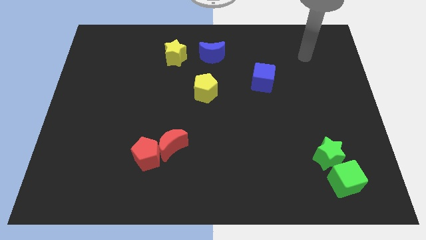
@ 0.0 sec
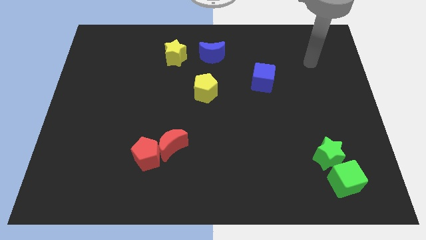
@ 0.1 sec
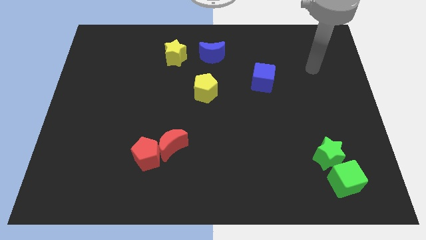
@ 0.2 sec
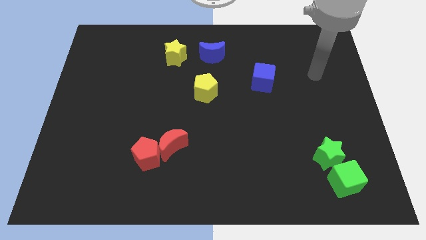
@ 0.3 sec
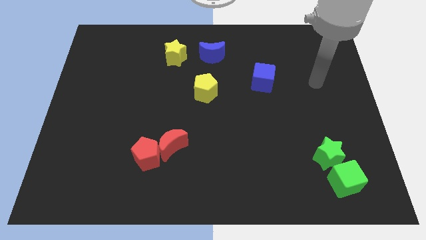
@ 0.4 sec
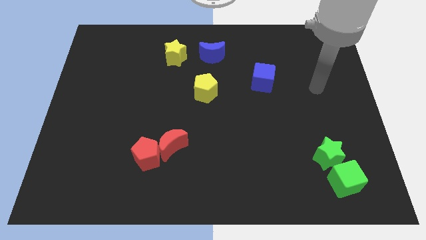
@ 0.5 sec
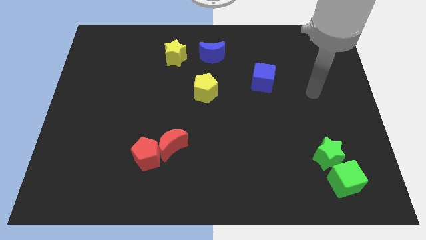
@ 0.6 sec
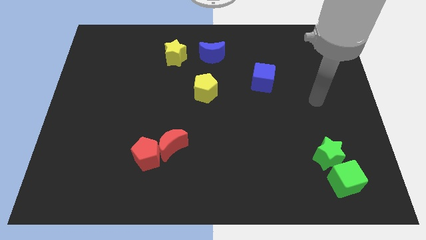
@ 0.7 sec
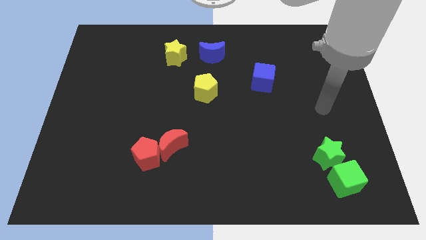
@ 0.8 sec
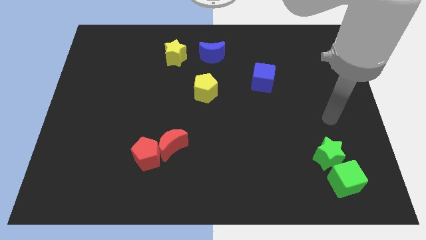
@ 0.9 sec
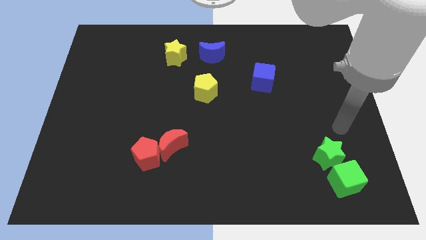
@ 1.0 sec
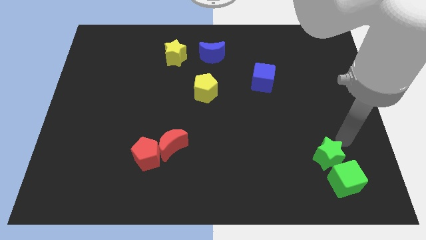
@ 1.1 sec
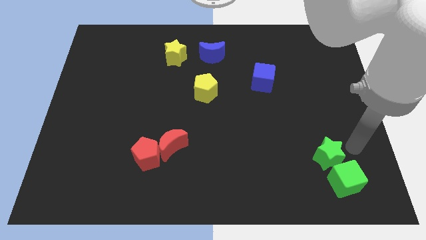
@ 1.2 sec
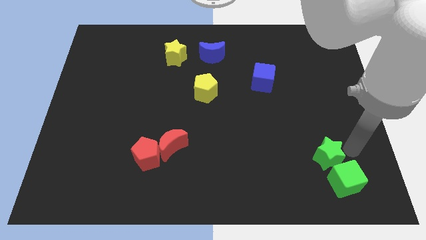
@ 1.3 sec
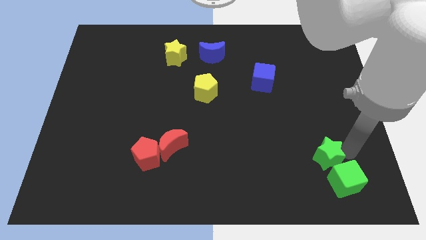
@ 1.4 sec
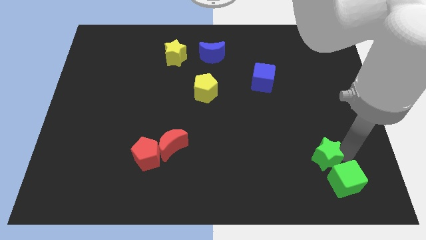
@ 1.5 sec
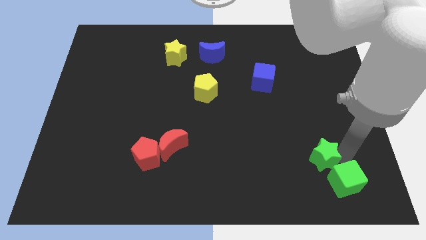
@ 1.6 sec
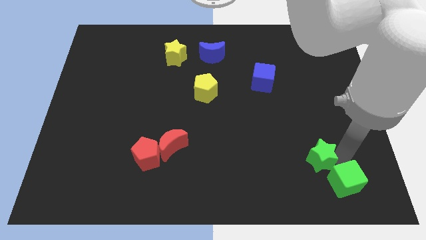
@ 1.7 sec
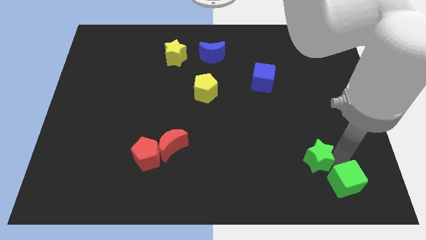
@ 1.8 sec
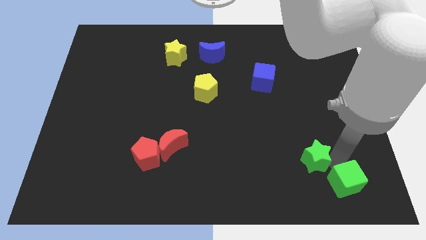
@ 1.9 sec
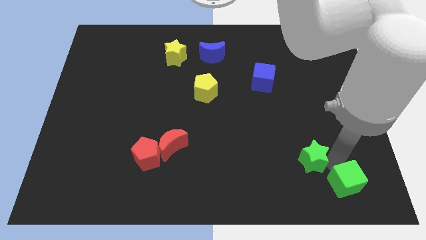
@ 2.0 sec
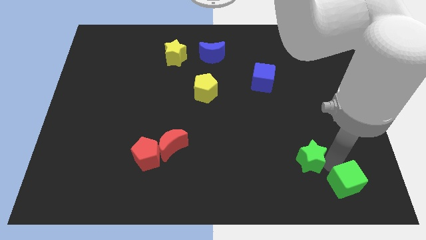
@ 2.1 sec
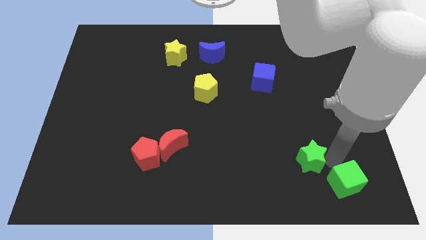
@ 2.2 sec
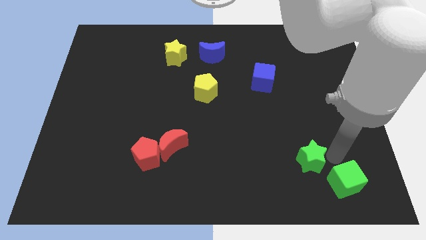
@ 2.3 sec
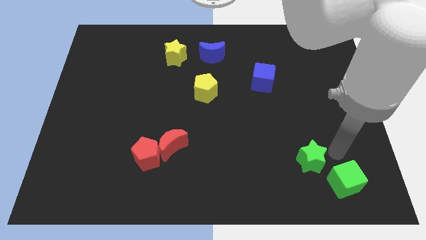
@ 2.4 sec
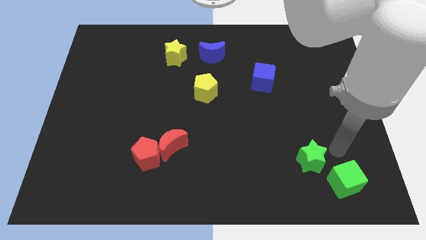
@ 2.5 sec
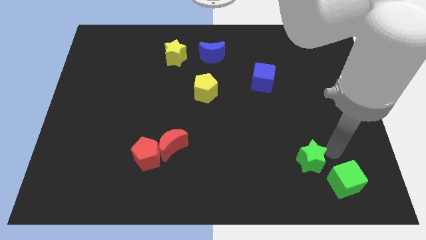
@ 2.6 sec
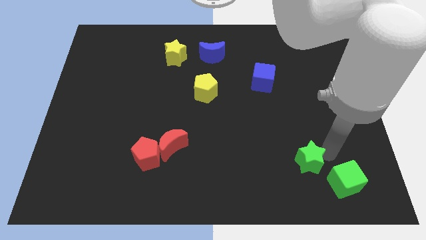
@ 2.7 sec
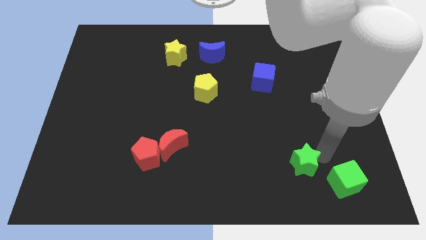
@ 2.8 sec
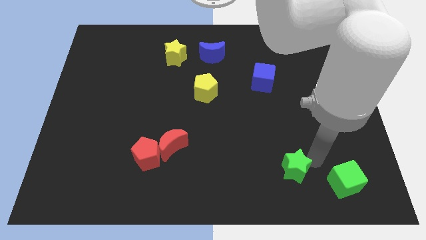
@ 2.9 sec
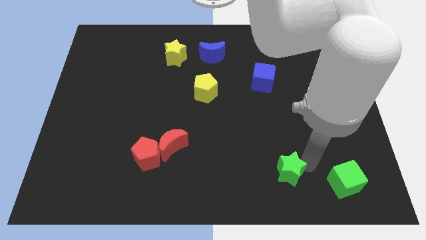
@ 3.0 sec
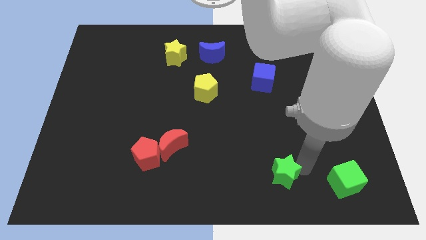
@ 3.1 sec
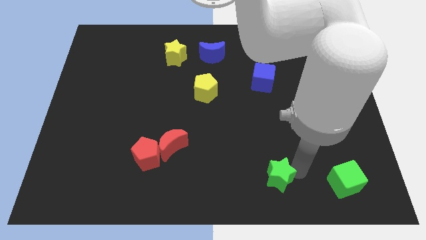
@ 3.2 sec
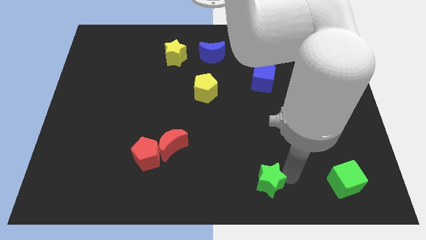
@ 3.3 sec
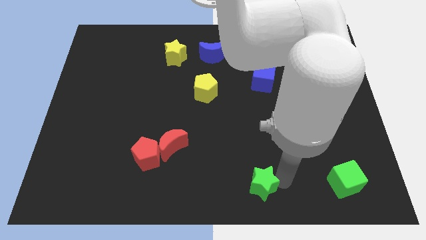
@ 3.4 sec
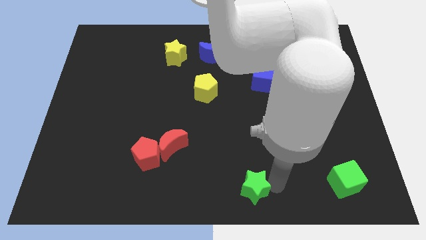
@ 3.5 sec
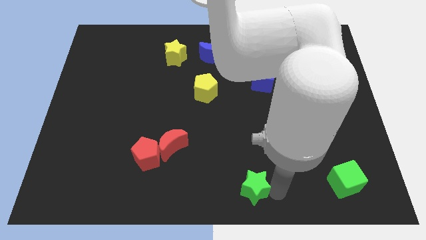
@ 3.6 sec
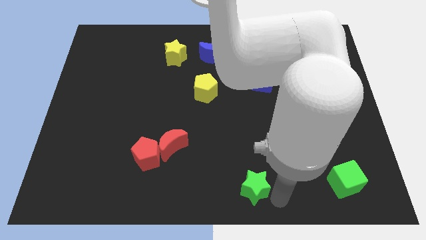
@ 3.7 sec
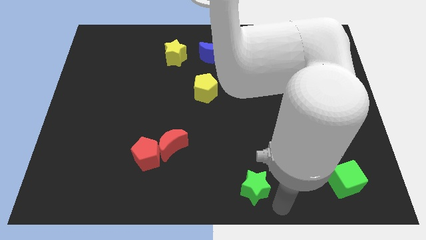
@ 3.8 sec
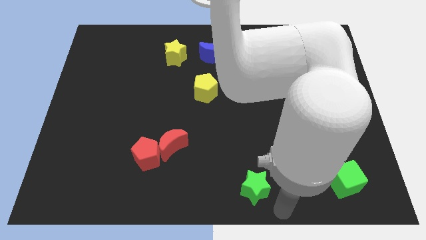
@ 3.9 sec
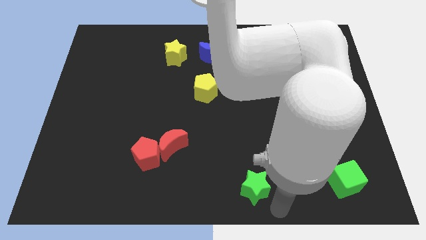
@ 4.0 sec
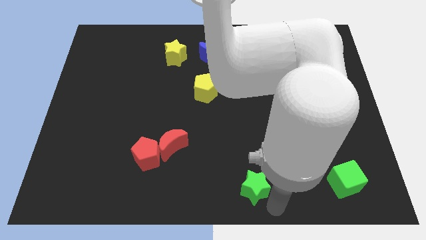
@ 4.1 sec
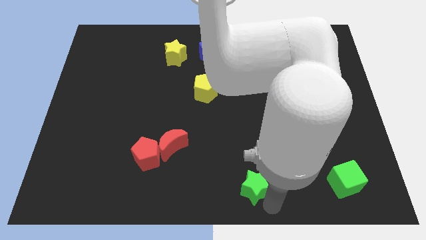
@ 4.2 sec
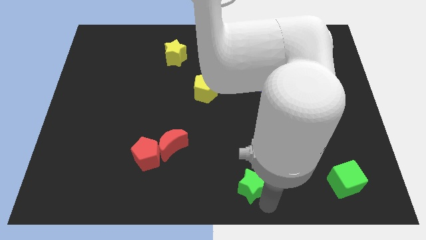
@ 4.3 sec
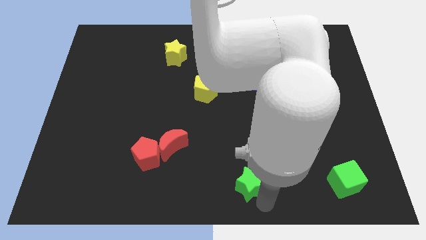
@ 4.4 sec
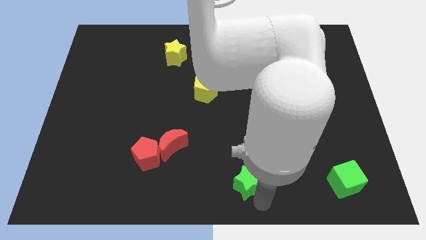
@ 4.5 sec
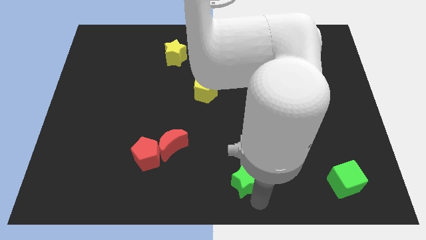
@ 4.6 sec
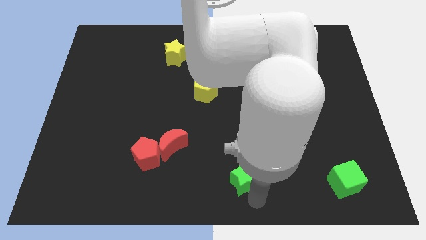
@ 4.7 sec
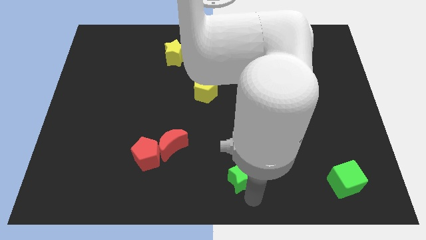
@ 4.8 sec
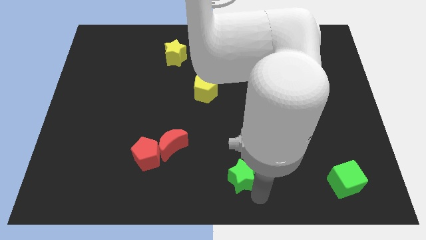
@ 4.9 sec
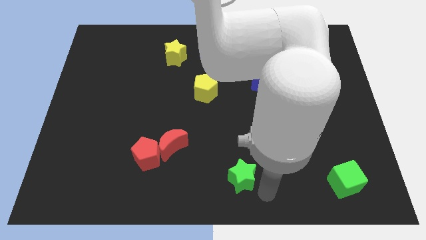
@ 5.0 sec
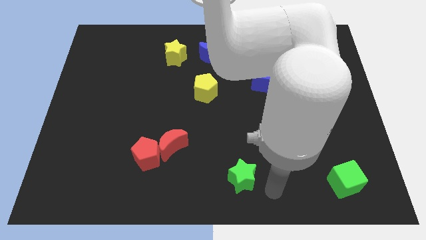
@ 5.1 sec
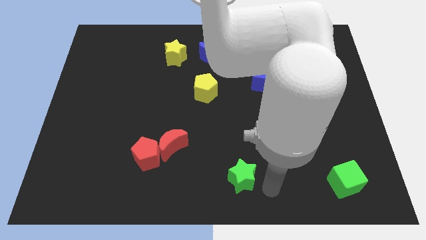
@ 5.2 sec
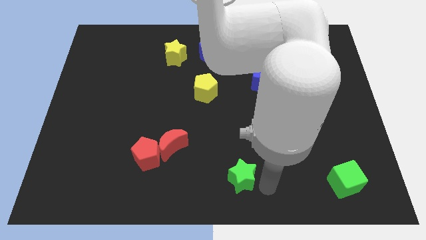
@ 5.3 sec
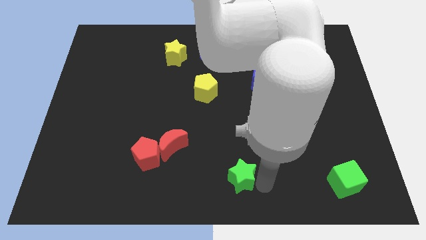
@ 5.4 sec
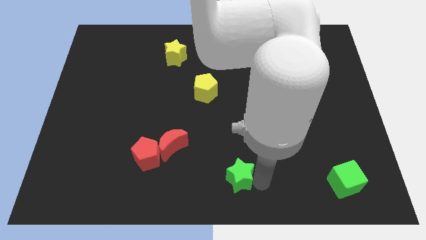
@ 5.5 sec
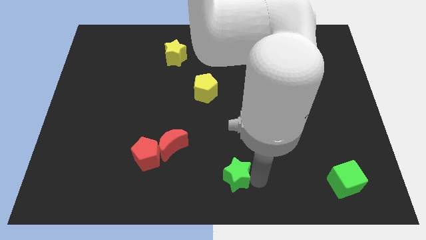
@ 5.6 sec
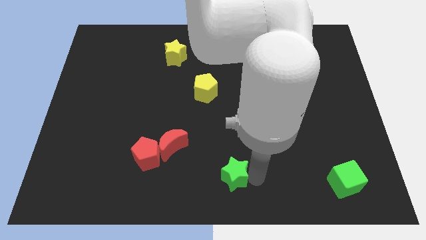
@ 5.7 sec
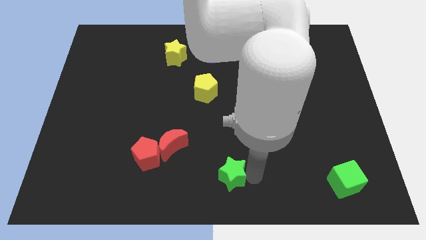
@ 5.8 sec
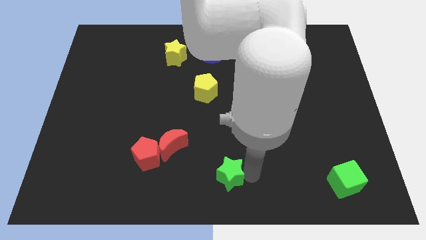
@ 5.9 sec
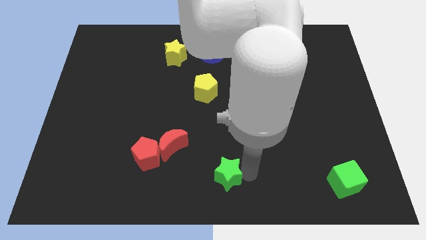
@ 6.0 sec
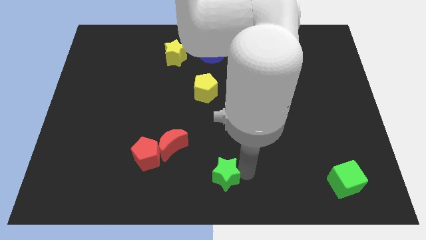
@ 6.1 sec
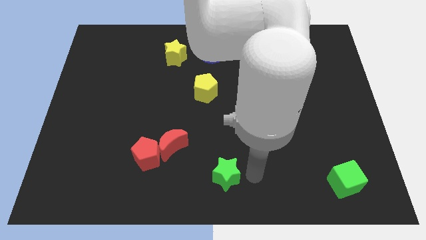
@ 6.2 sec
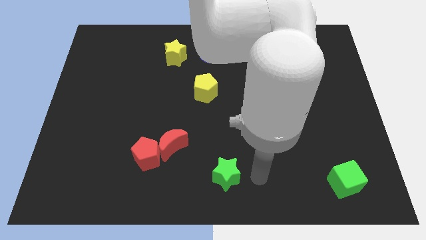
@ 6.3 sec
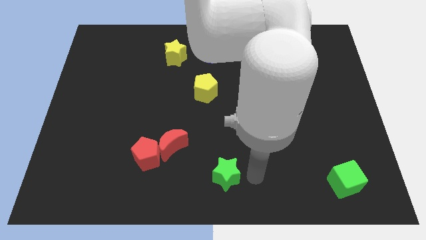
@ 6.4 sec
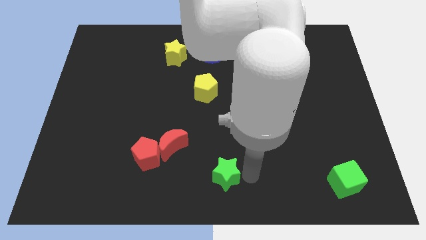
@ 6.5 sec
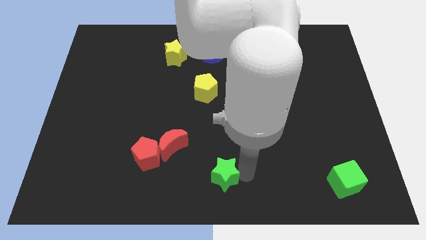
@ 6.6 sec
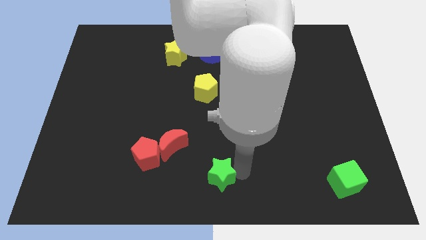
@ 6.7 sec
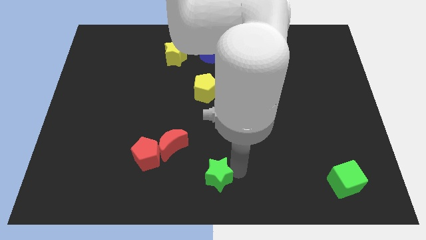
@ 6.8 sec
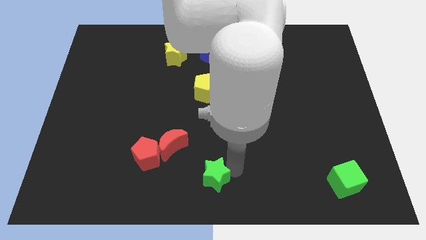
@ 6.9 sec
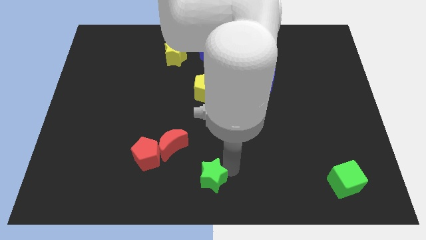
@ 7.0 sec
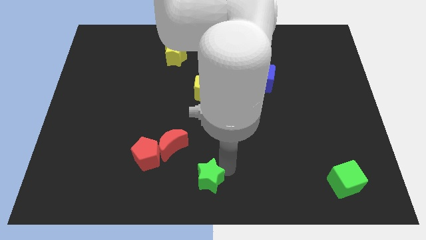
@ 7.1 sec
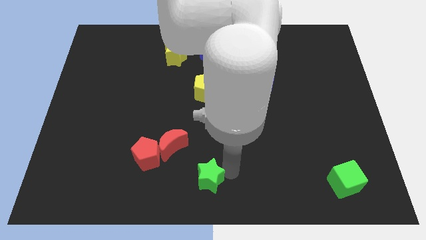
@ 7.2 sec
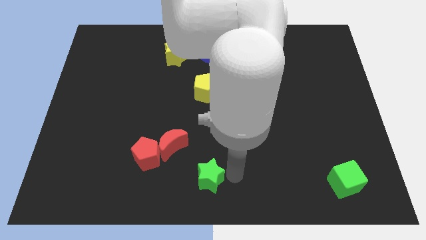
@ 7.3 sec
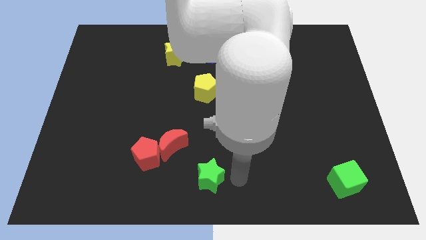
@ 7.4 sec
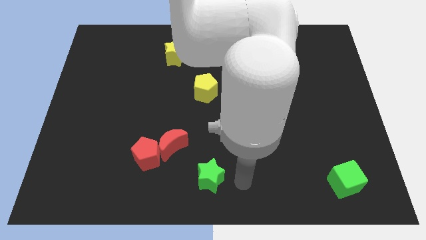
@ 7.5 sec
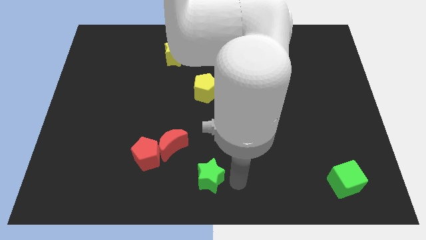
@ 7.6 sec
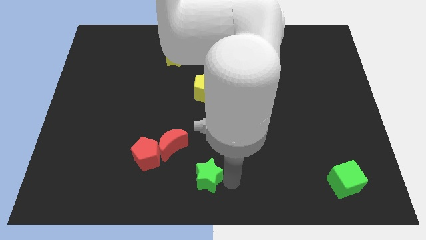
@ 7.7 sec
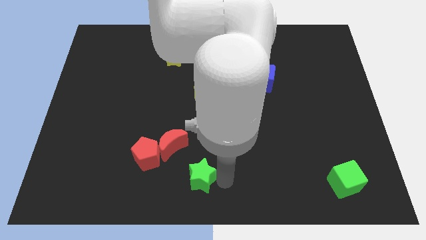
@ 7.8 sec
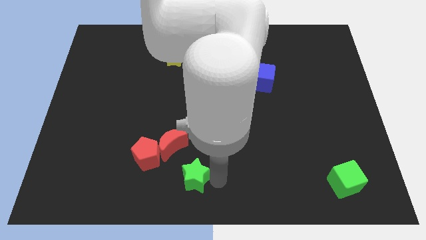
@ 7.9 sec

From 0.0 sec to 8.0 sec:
put the green star diagonally down and to the right of the red pentagon
